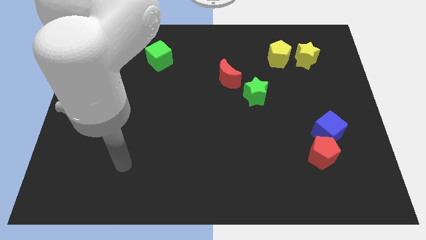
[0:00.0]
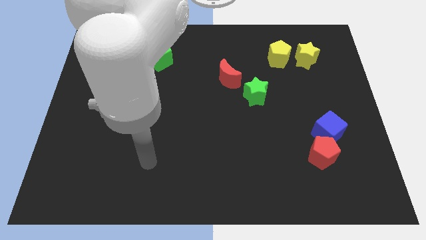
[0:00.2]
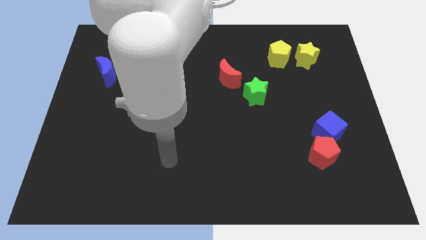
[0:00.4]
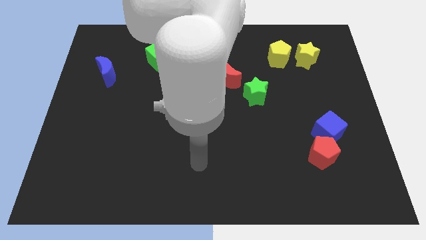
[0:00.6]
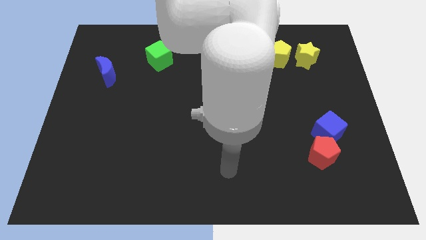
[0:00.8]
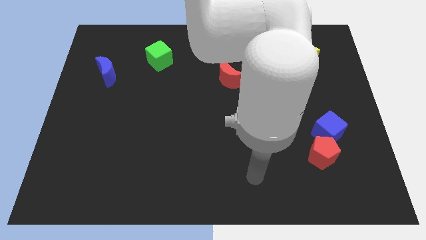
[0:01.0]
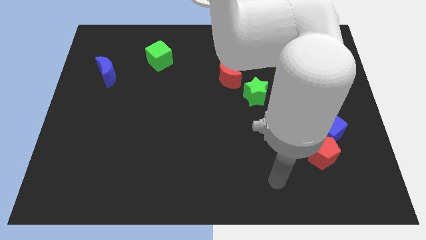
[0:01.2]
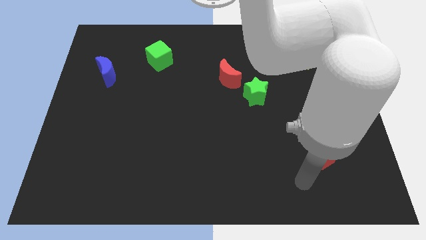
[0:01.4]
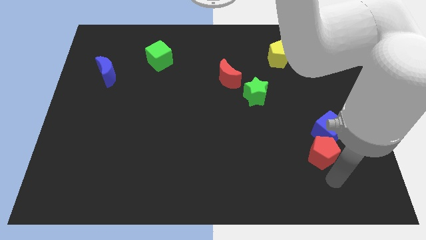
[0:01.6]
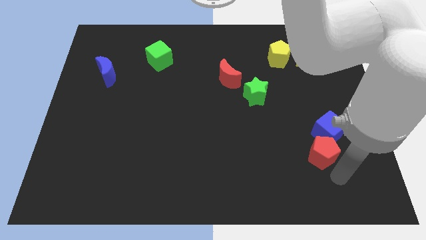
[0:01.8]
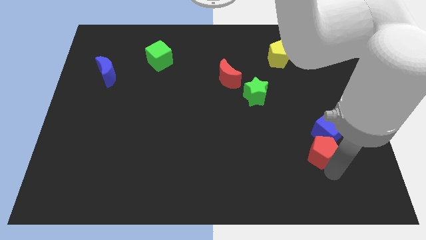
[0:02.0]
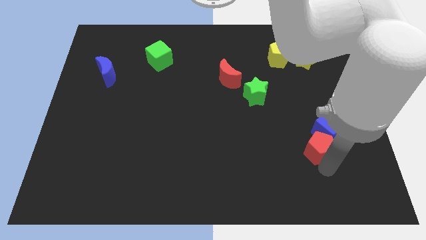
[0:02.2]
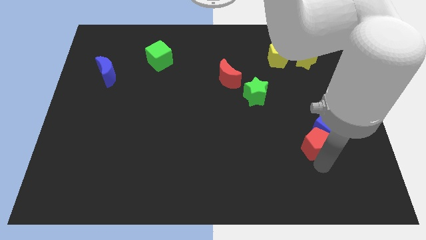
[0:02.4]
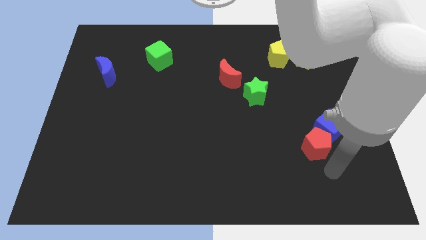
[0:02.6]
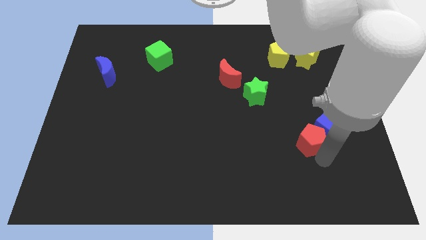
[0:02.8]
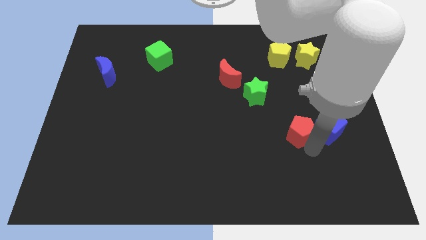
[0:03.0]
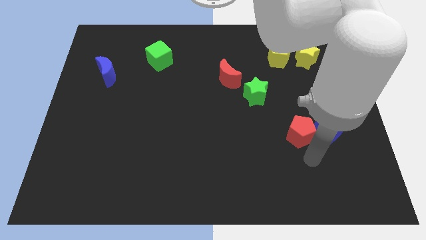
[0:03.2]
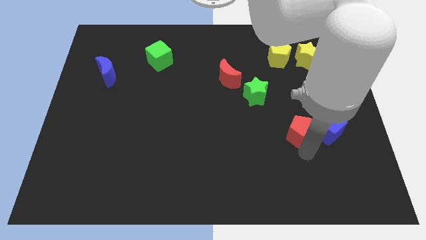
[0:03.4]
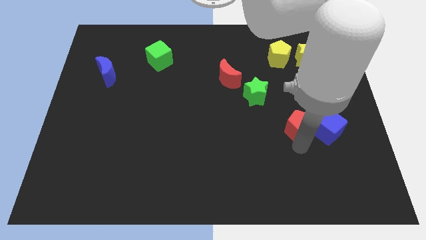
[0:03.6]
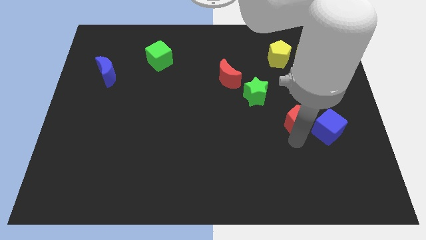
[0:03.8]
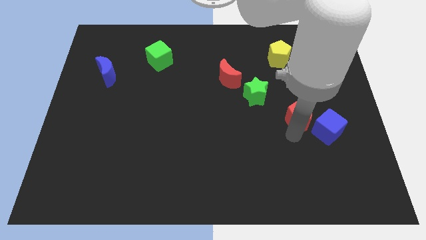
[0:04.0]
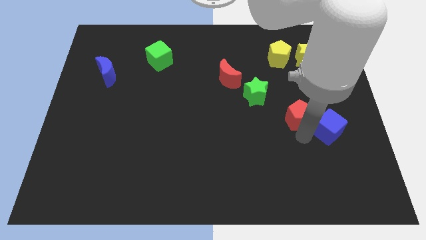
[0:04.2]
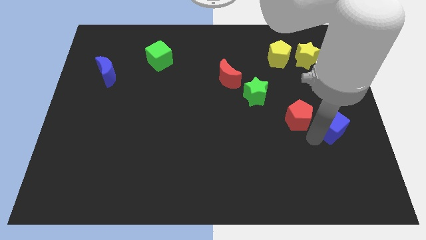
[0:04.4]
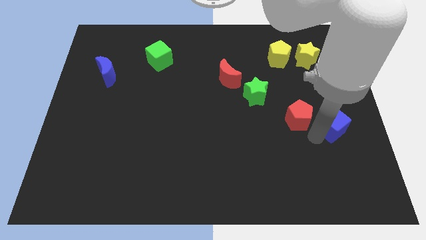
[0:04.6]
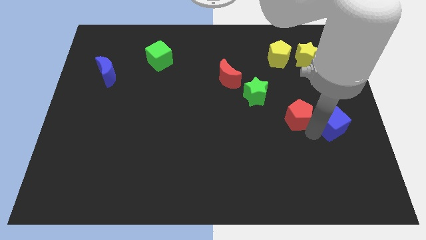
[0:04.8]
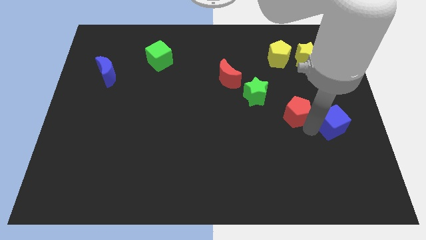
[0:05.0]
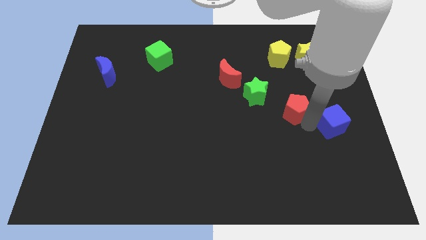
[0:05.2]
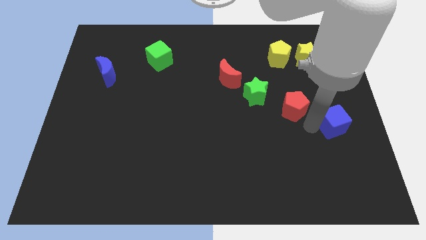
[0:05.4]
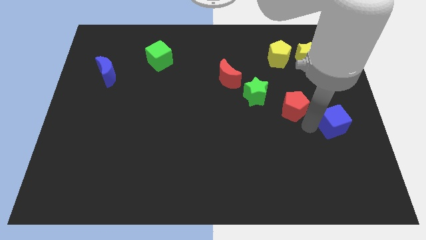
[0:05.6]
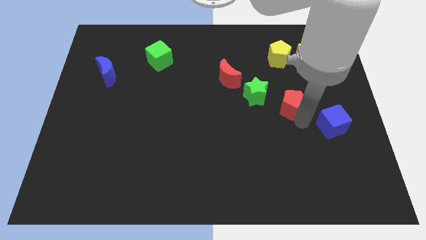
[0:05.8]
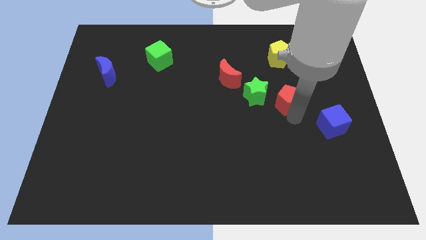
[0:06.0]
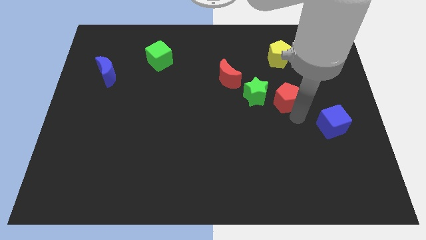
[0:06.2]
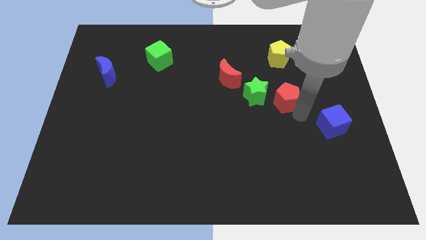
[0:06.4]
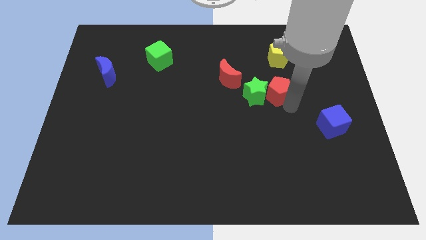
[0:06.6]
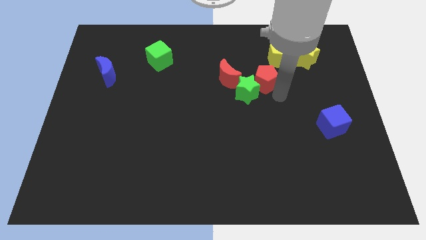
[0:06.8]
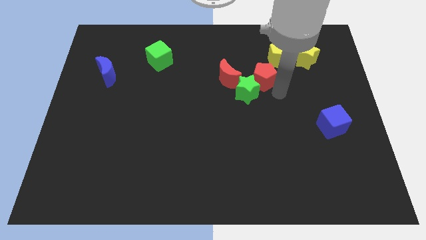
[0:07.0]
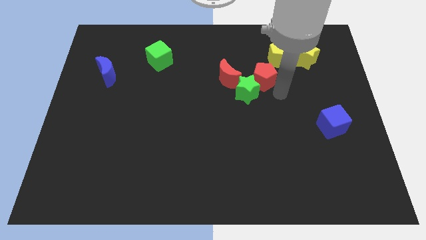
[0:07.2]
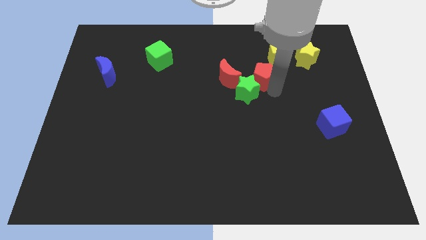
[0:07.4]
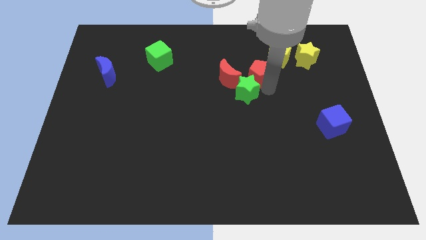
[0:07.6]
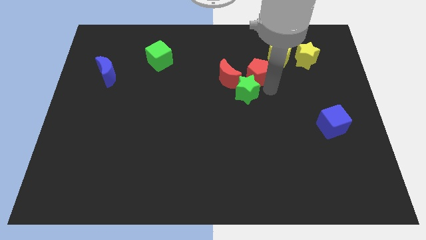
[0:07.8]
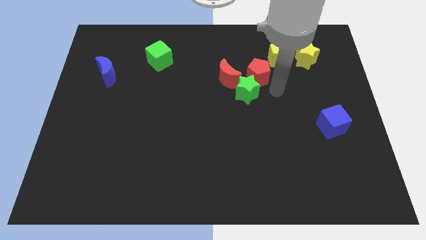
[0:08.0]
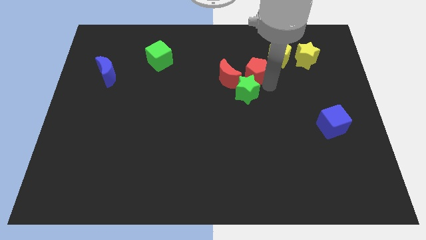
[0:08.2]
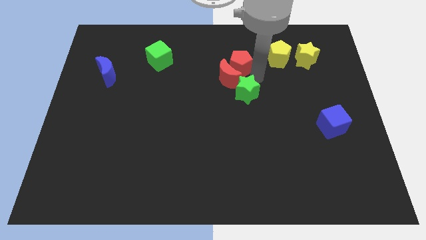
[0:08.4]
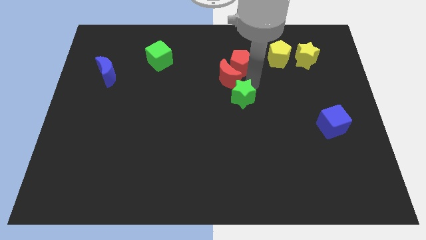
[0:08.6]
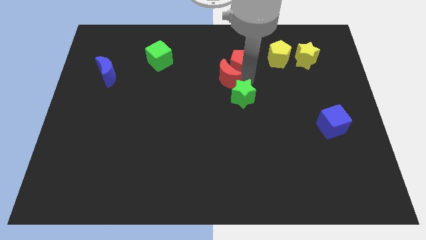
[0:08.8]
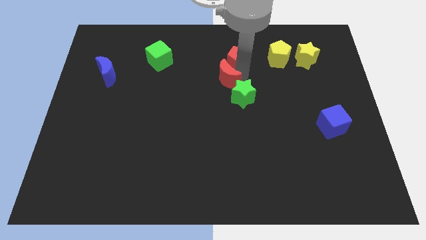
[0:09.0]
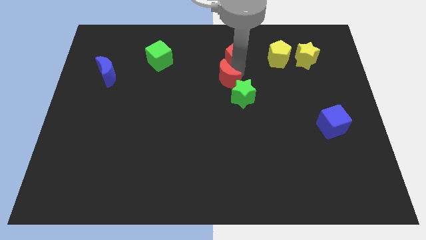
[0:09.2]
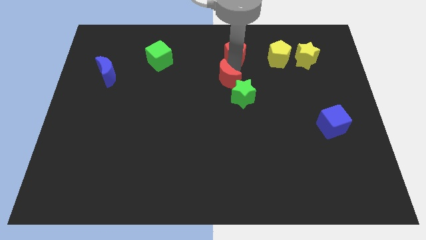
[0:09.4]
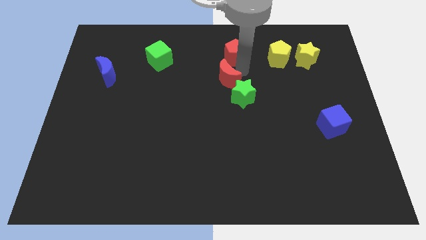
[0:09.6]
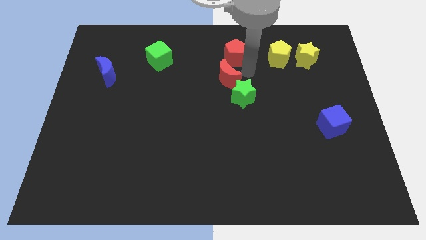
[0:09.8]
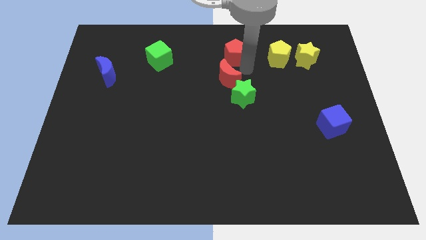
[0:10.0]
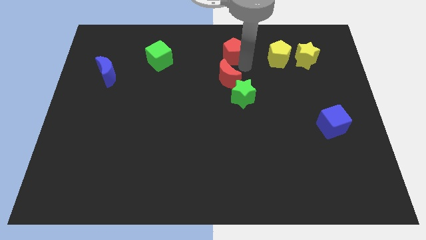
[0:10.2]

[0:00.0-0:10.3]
push the red pentagon to the towards your base
